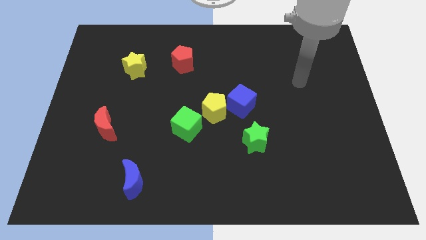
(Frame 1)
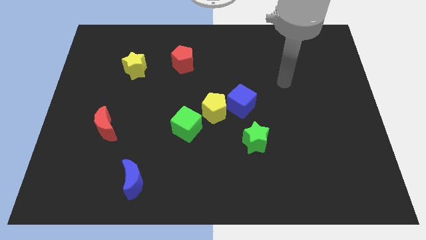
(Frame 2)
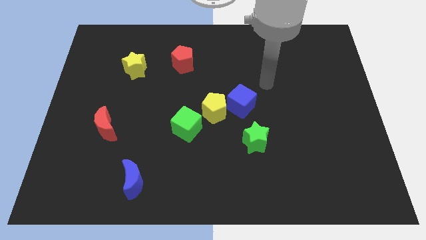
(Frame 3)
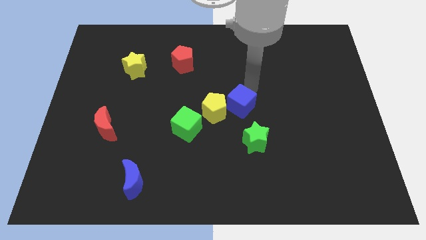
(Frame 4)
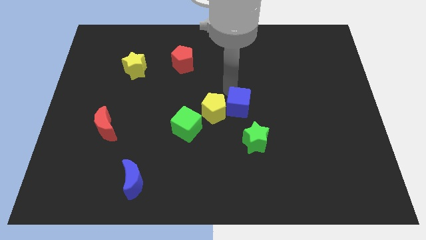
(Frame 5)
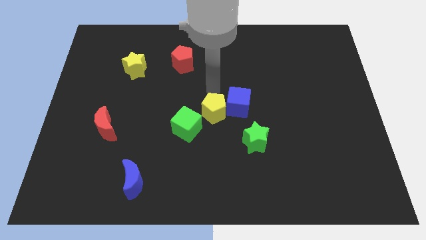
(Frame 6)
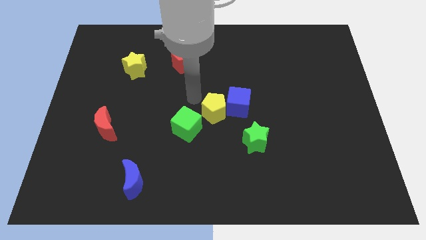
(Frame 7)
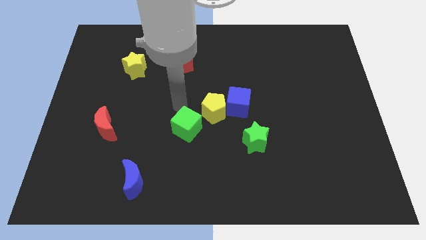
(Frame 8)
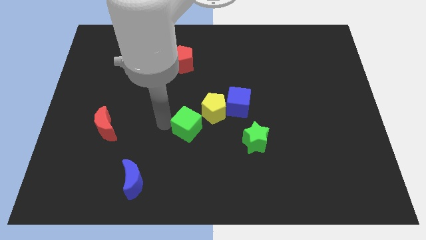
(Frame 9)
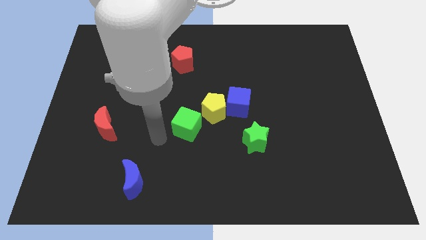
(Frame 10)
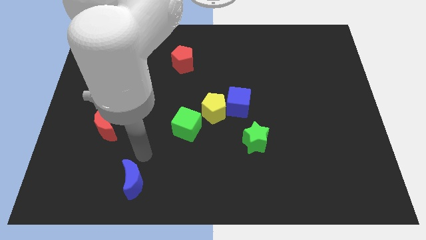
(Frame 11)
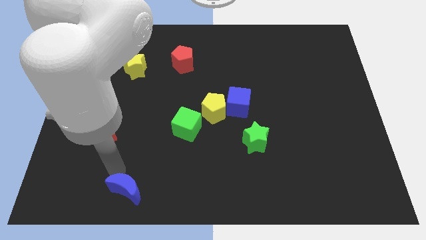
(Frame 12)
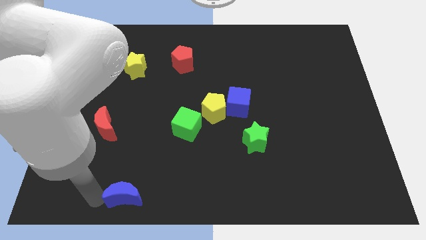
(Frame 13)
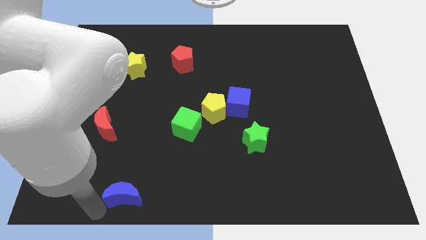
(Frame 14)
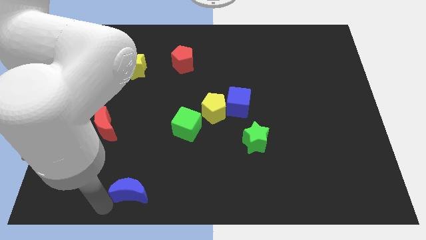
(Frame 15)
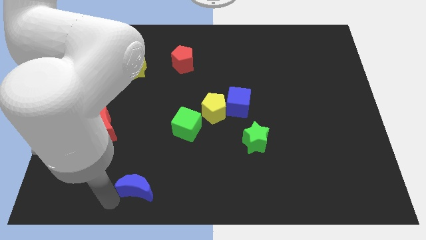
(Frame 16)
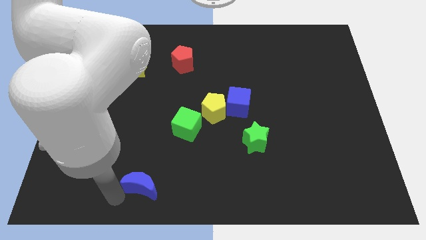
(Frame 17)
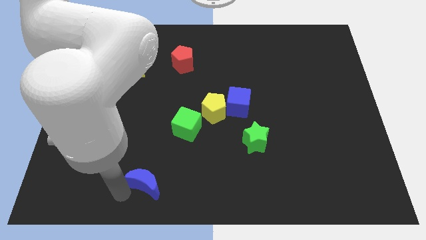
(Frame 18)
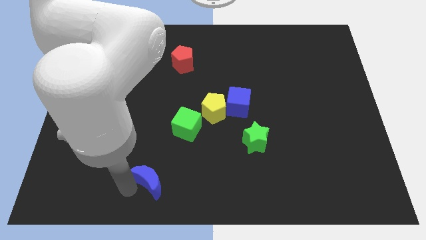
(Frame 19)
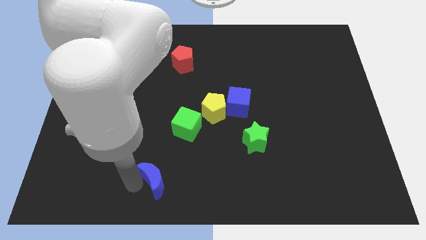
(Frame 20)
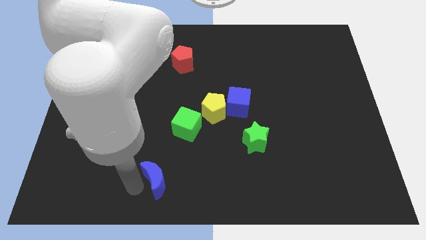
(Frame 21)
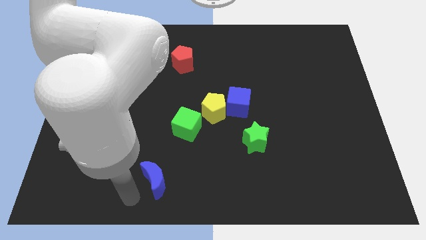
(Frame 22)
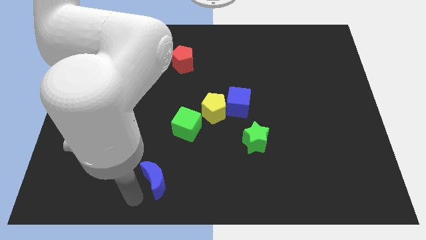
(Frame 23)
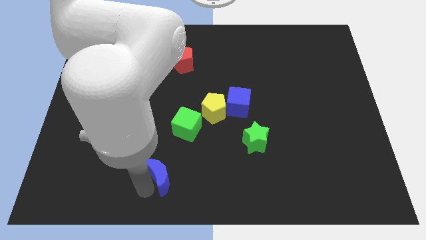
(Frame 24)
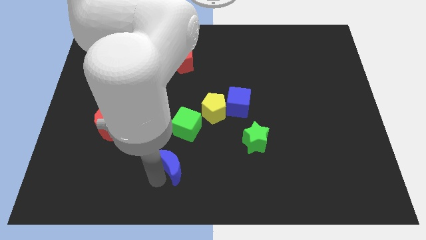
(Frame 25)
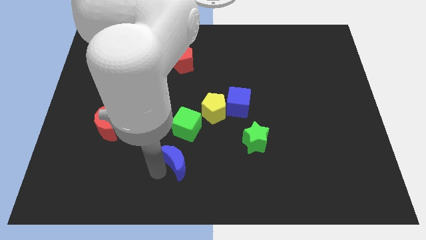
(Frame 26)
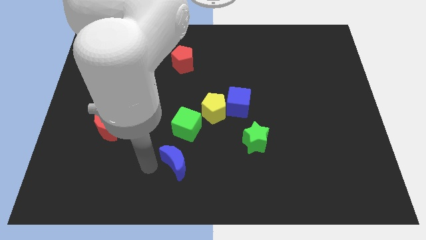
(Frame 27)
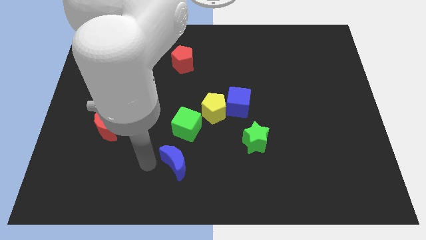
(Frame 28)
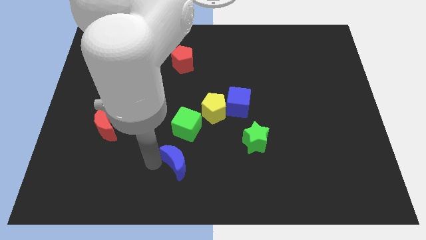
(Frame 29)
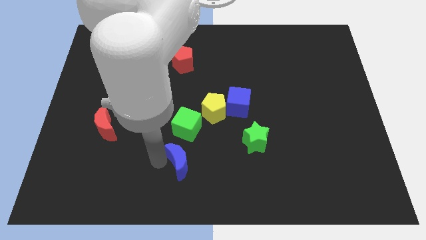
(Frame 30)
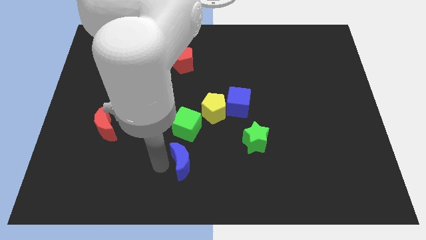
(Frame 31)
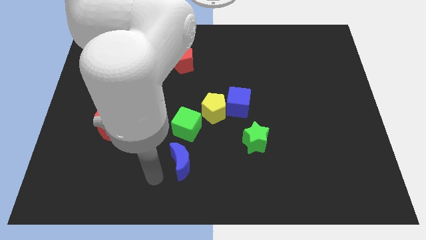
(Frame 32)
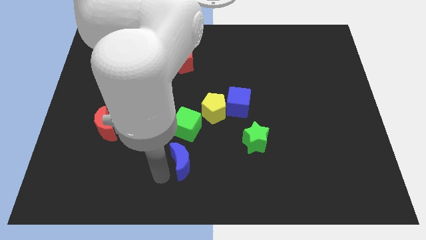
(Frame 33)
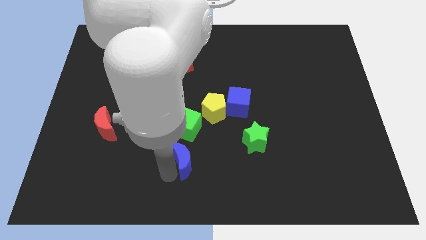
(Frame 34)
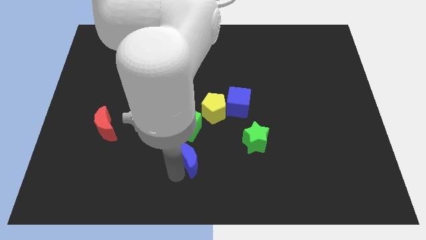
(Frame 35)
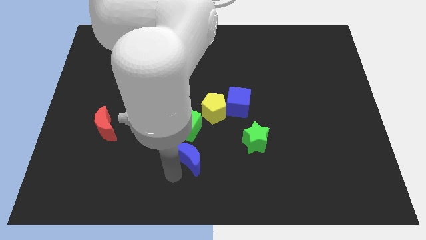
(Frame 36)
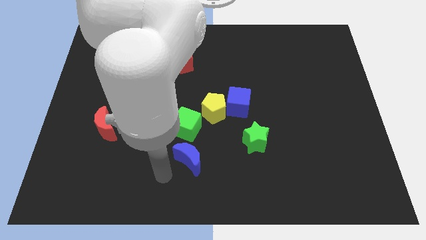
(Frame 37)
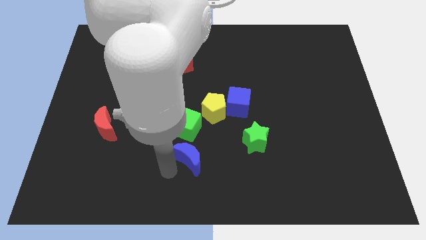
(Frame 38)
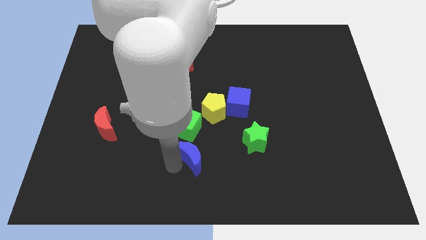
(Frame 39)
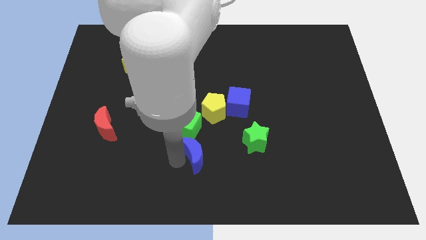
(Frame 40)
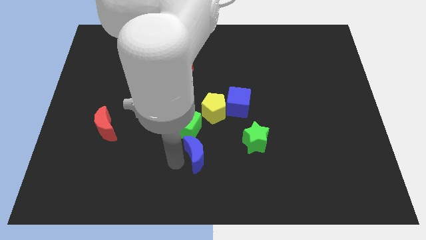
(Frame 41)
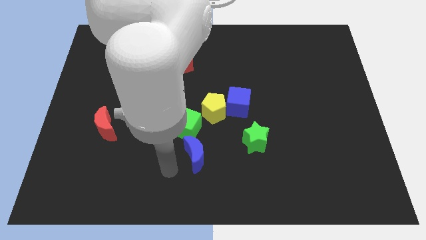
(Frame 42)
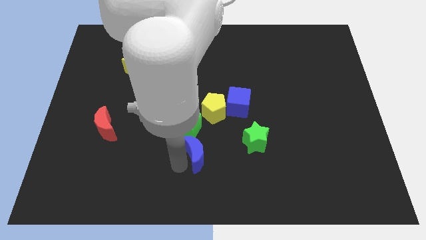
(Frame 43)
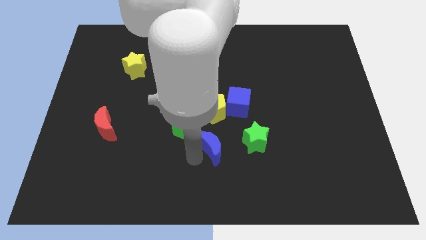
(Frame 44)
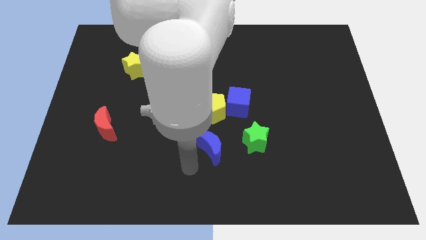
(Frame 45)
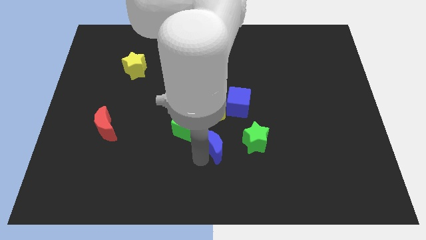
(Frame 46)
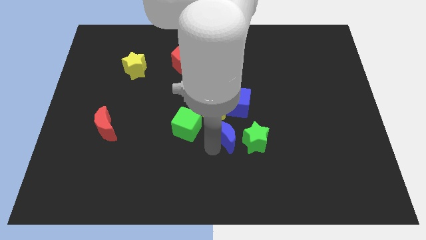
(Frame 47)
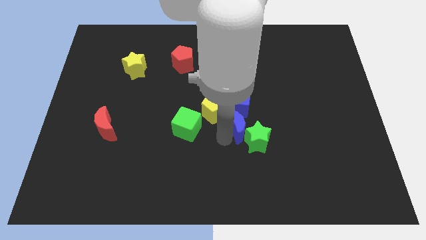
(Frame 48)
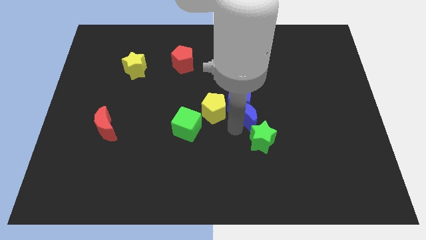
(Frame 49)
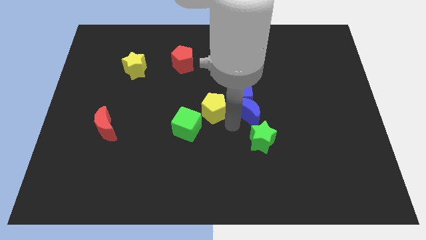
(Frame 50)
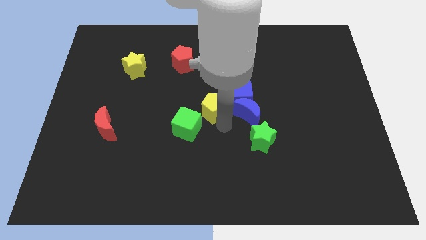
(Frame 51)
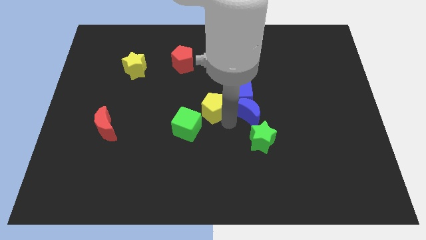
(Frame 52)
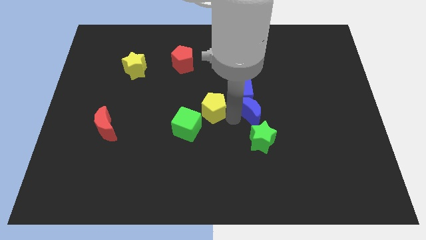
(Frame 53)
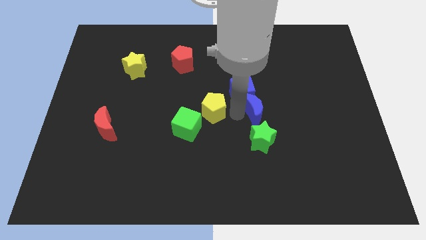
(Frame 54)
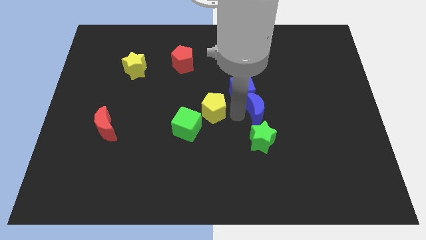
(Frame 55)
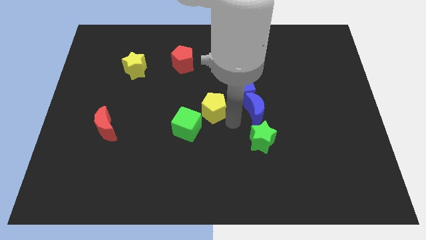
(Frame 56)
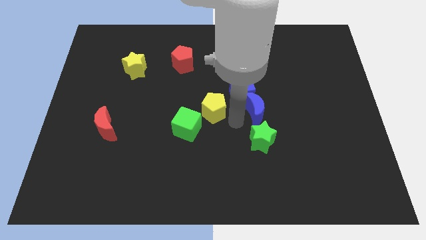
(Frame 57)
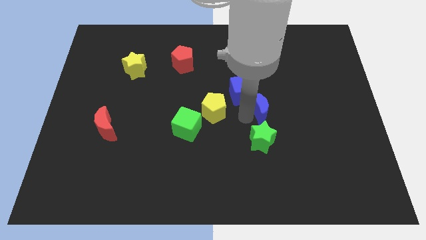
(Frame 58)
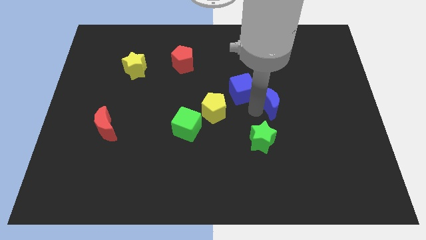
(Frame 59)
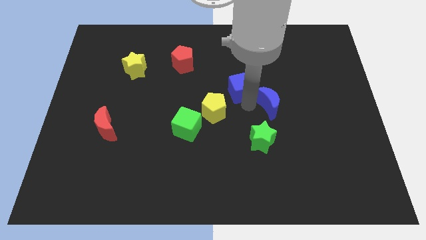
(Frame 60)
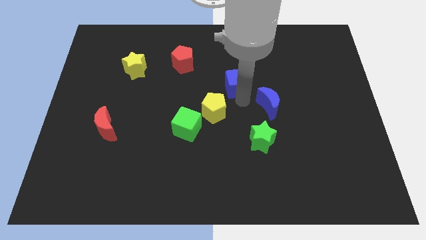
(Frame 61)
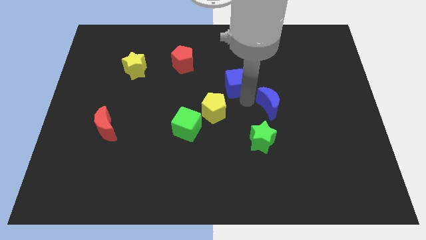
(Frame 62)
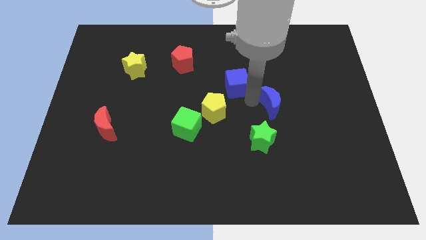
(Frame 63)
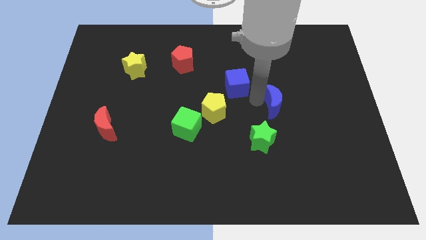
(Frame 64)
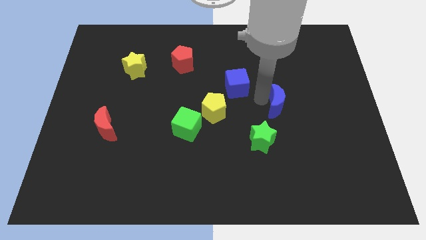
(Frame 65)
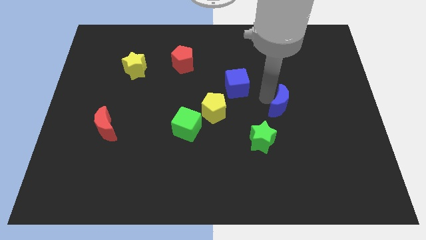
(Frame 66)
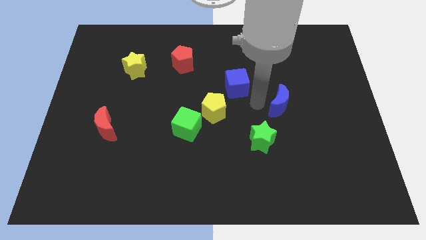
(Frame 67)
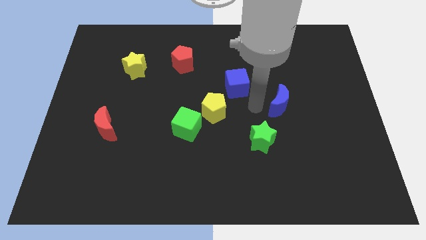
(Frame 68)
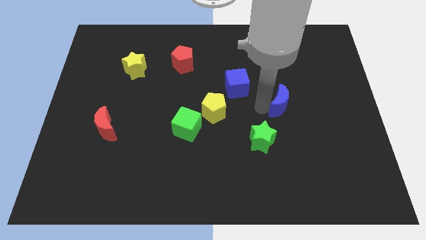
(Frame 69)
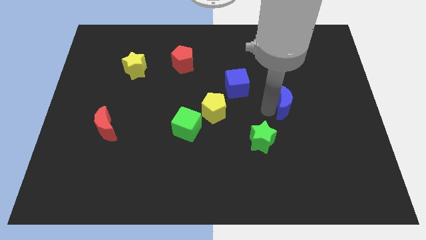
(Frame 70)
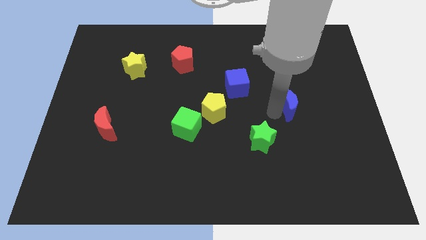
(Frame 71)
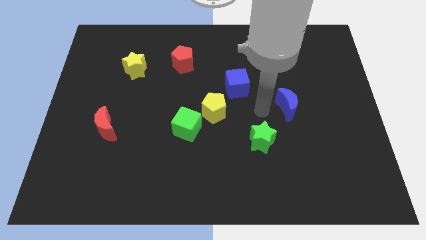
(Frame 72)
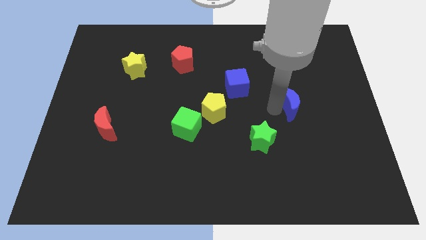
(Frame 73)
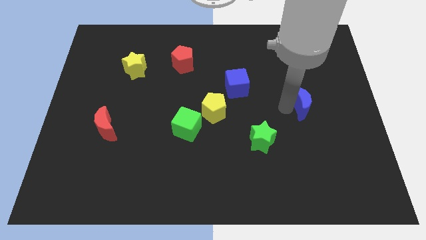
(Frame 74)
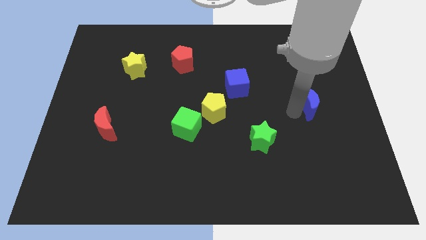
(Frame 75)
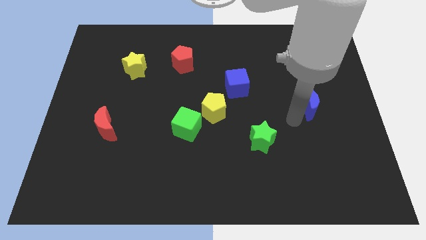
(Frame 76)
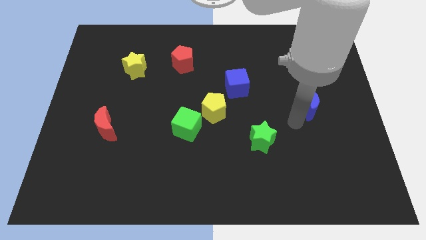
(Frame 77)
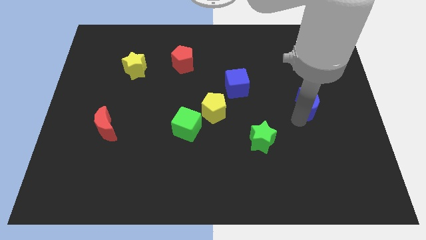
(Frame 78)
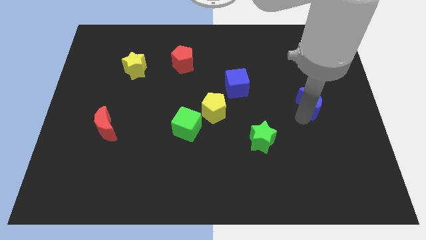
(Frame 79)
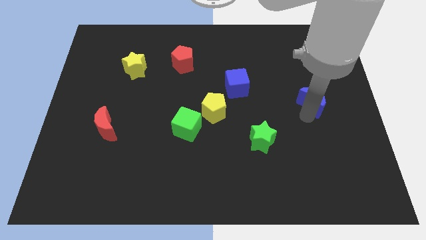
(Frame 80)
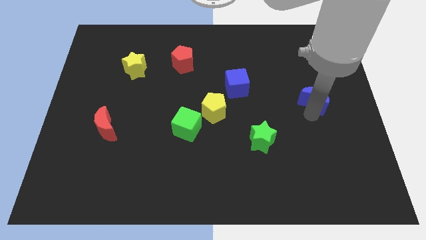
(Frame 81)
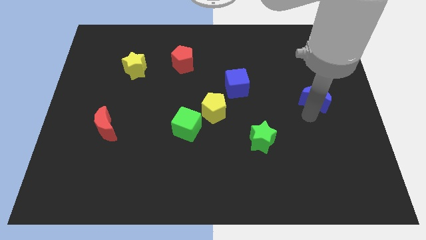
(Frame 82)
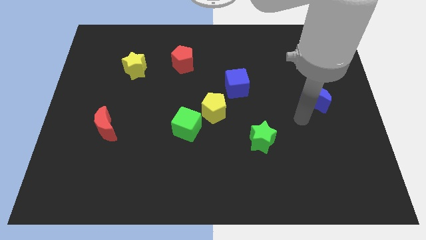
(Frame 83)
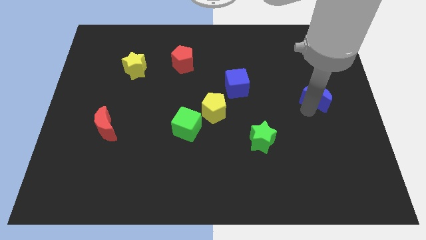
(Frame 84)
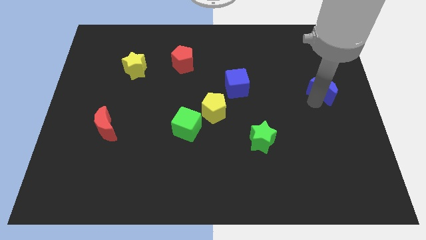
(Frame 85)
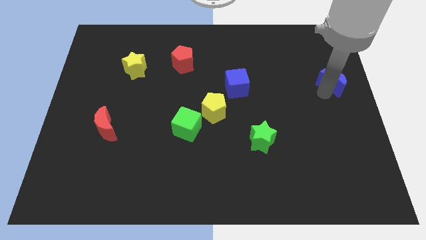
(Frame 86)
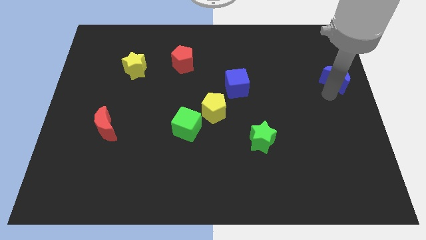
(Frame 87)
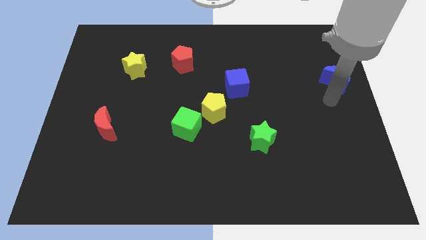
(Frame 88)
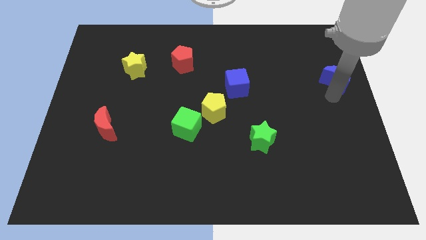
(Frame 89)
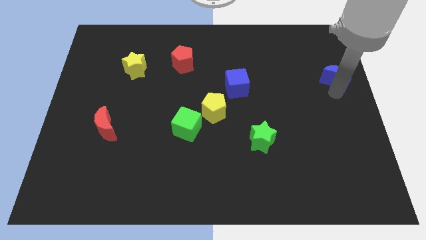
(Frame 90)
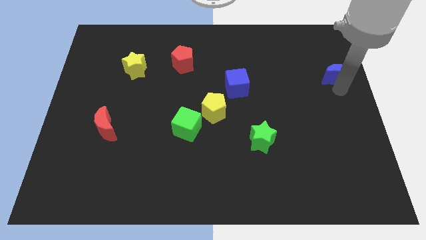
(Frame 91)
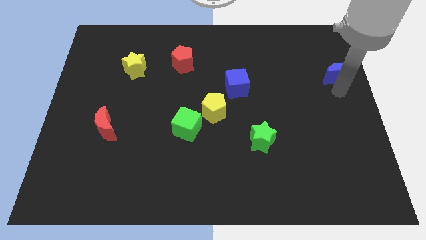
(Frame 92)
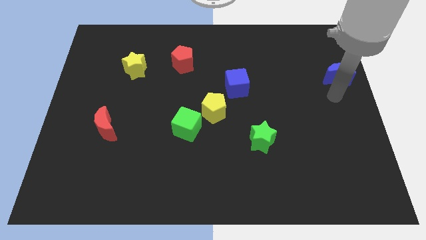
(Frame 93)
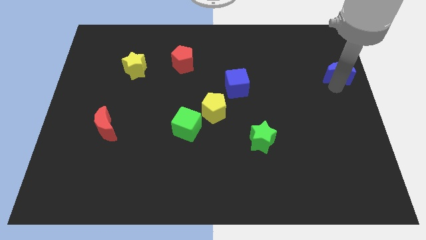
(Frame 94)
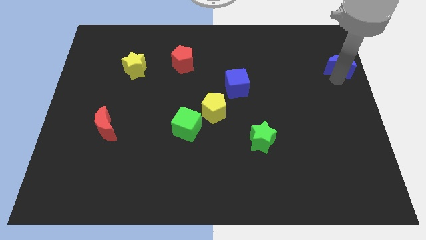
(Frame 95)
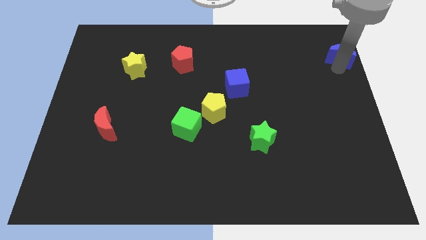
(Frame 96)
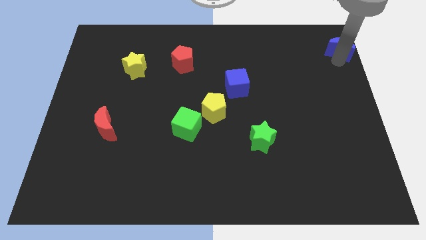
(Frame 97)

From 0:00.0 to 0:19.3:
slide the blue moon to the top right
